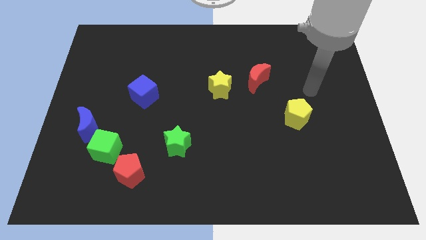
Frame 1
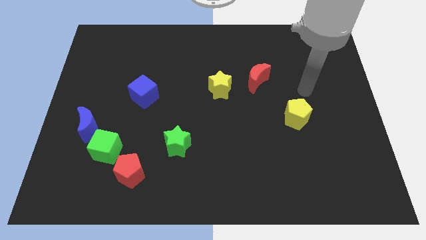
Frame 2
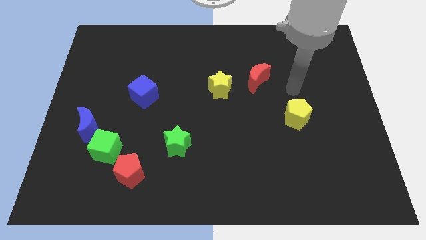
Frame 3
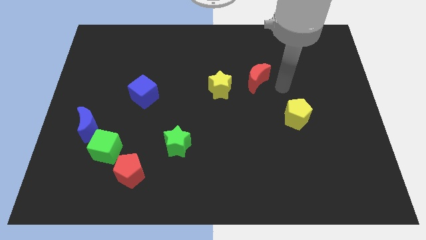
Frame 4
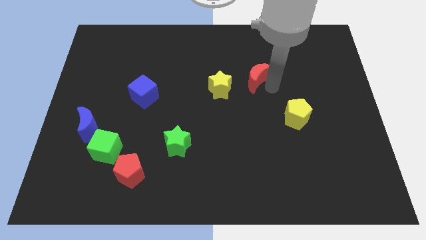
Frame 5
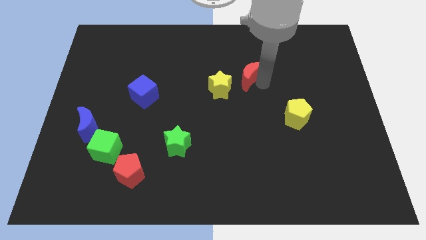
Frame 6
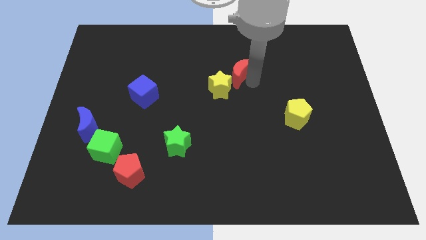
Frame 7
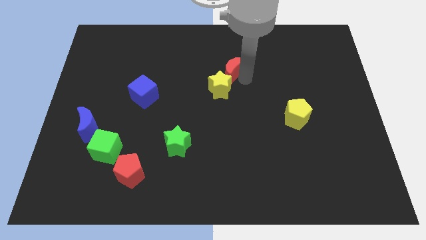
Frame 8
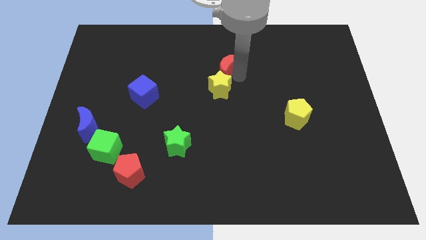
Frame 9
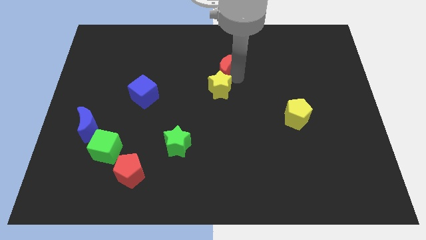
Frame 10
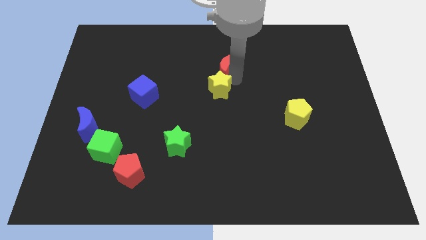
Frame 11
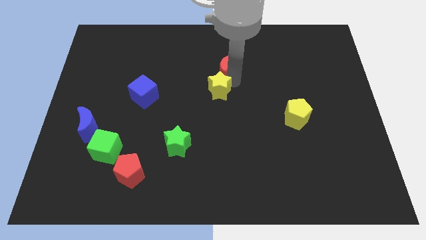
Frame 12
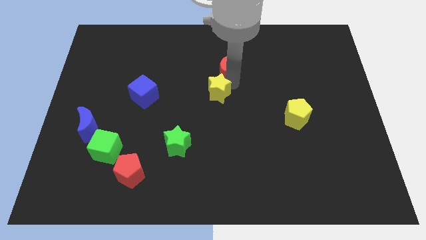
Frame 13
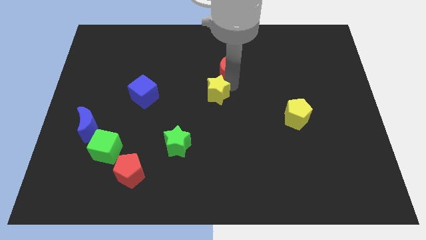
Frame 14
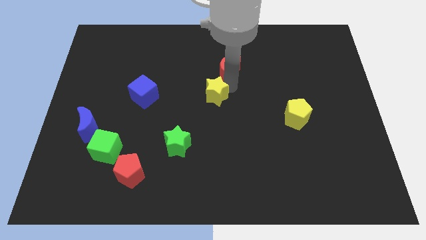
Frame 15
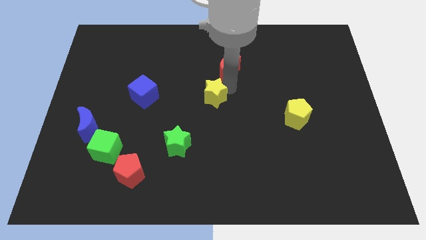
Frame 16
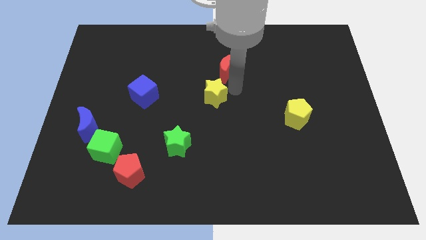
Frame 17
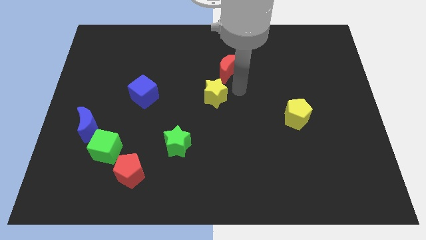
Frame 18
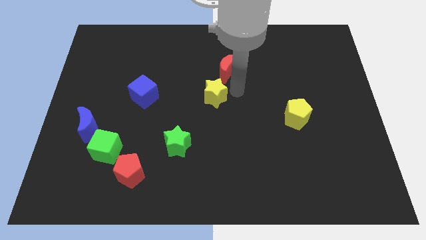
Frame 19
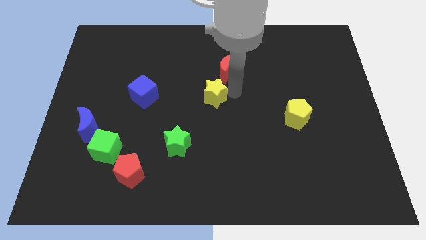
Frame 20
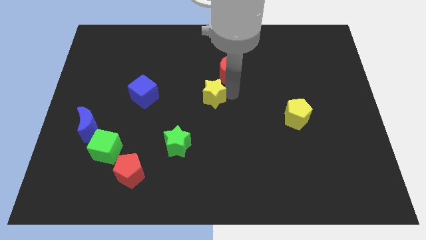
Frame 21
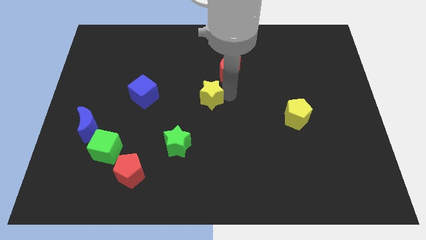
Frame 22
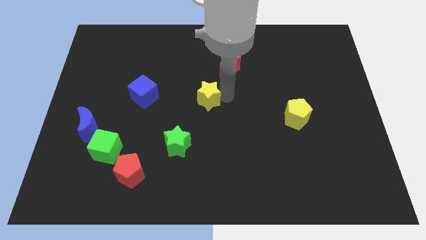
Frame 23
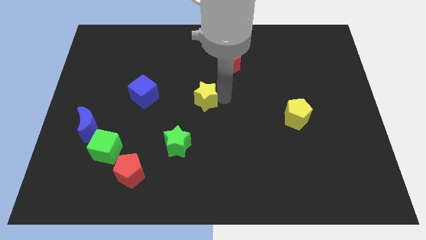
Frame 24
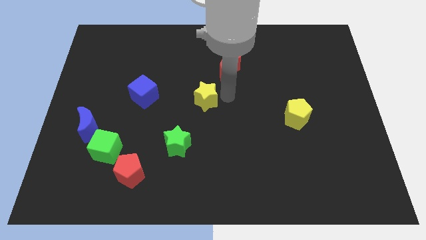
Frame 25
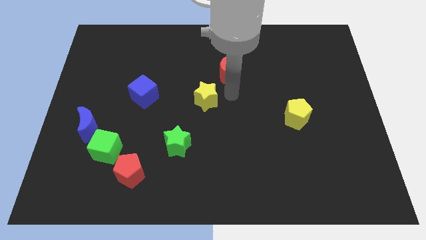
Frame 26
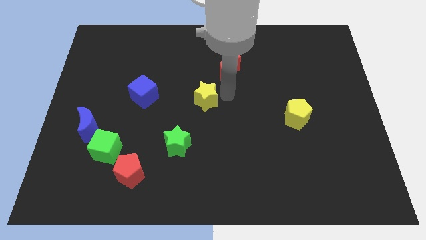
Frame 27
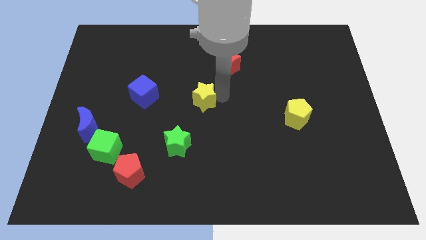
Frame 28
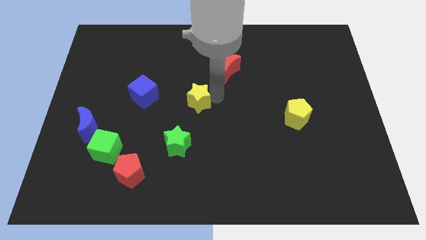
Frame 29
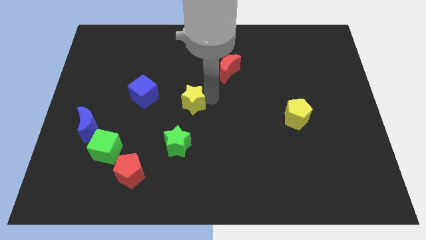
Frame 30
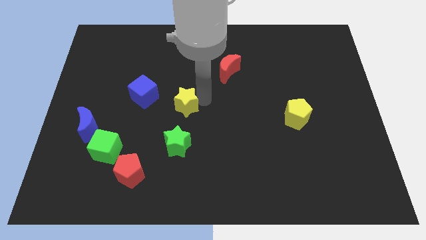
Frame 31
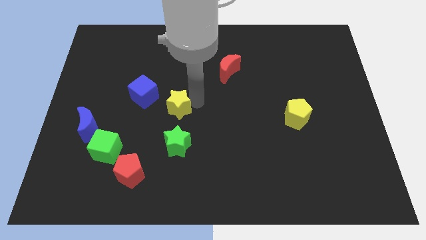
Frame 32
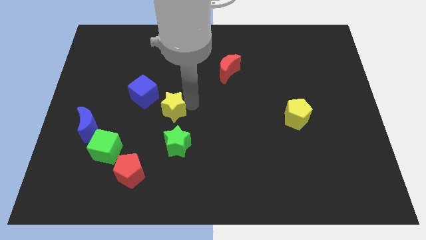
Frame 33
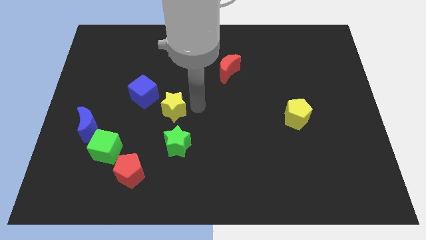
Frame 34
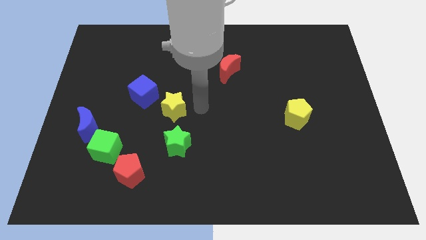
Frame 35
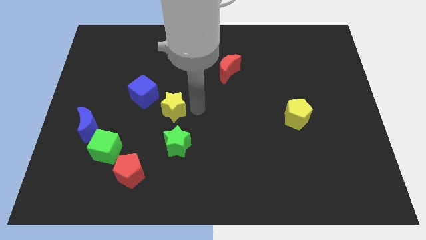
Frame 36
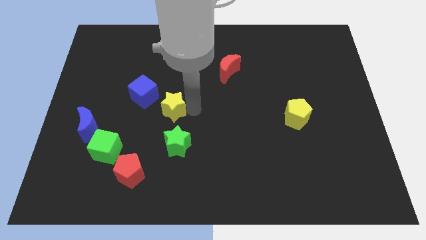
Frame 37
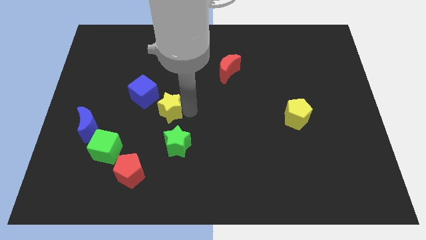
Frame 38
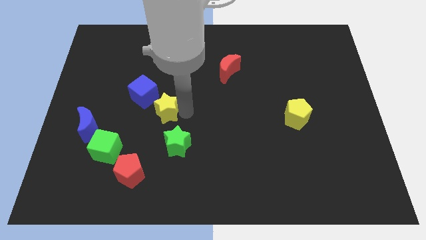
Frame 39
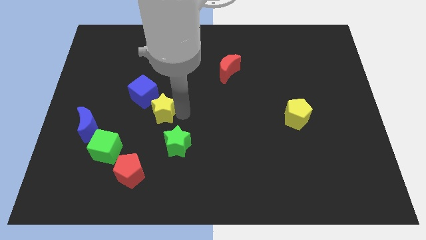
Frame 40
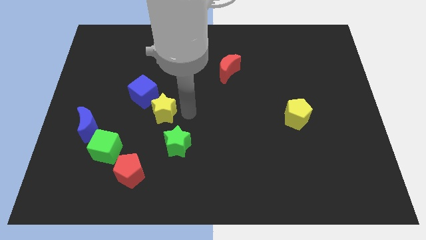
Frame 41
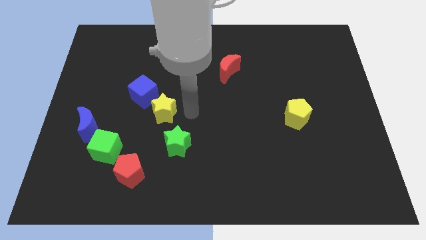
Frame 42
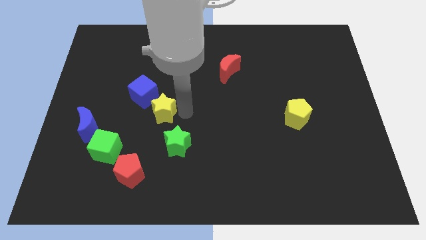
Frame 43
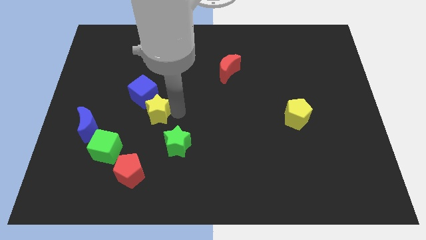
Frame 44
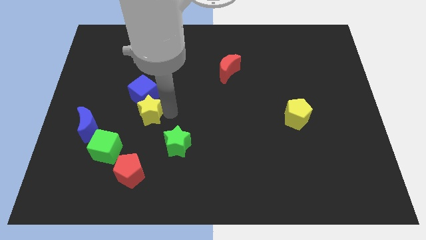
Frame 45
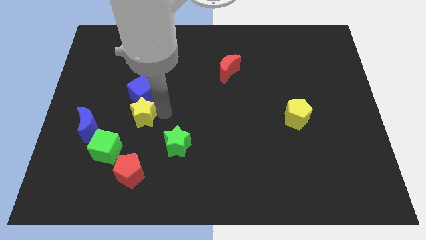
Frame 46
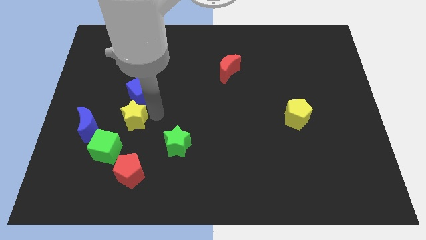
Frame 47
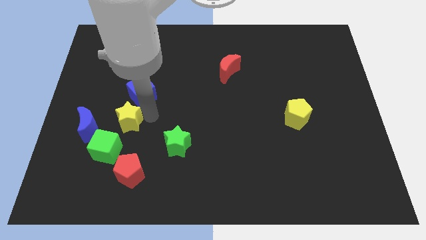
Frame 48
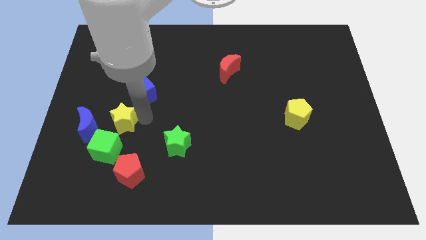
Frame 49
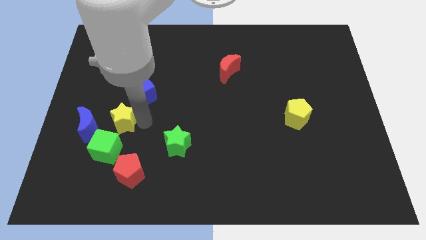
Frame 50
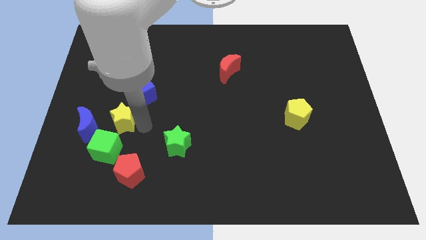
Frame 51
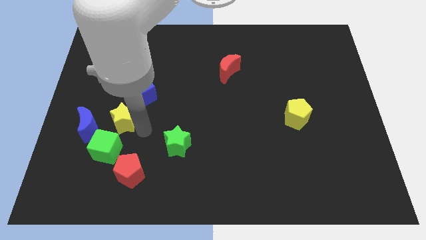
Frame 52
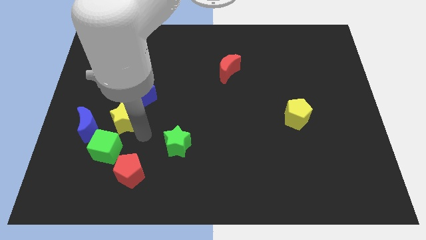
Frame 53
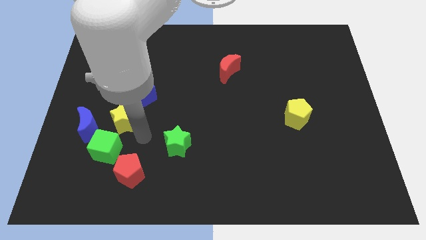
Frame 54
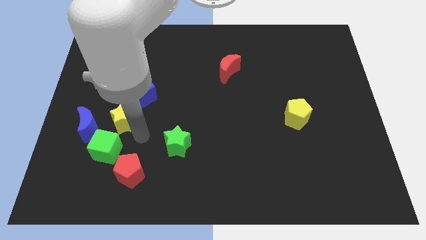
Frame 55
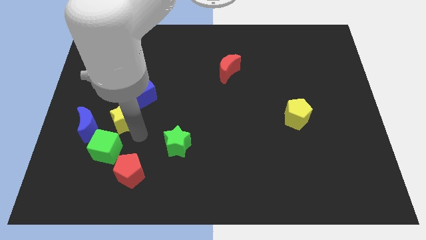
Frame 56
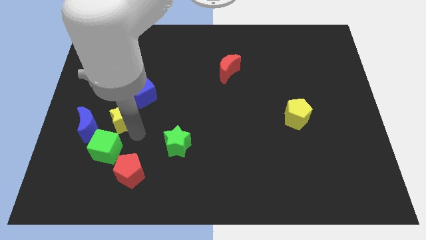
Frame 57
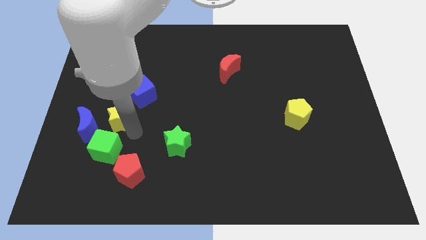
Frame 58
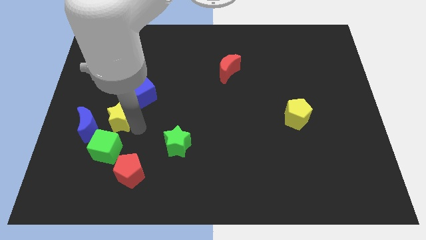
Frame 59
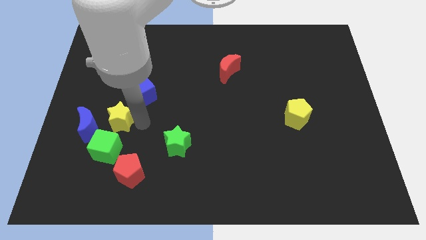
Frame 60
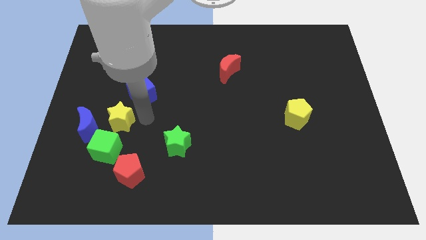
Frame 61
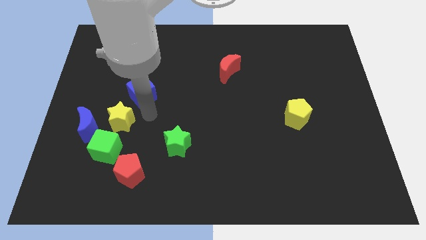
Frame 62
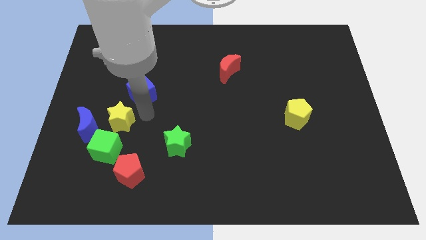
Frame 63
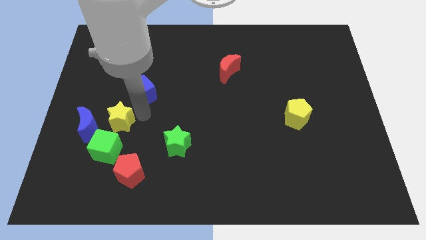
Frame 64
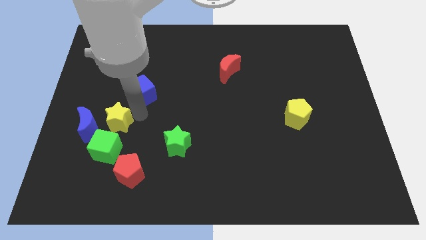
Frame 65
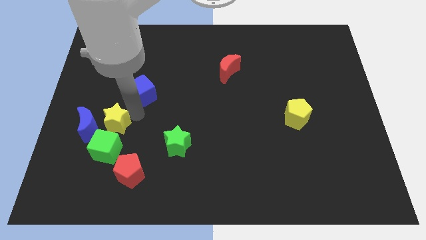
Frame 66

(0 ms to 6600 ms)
push the yellow star next to the blue moon

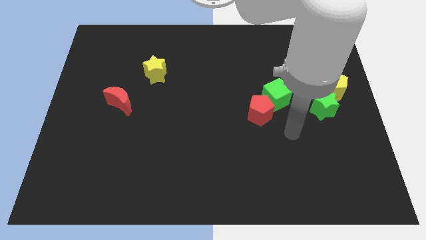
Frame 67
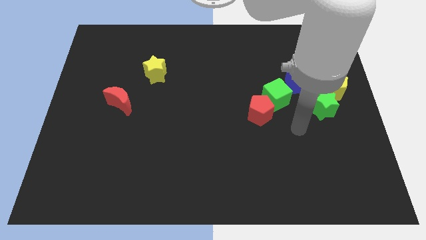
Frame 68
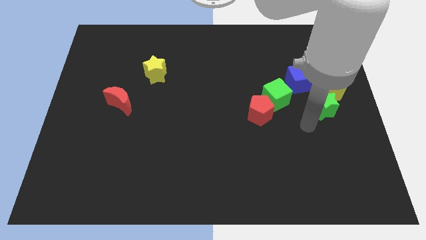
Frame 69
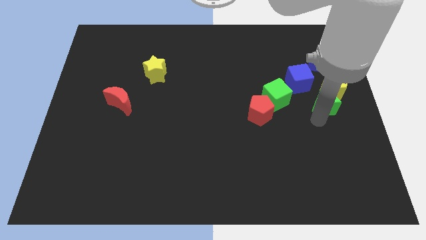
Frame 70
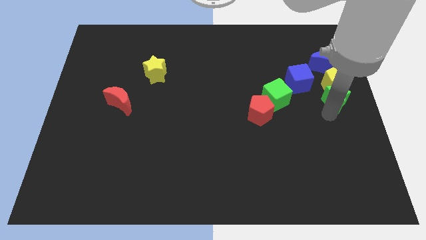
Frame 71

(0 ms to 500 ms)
put the yellow pentagon to the blue moon
